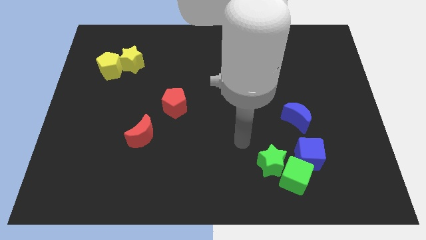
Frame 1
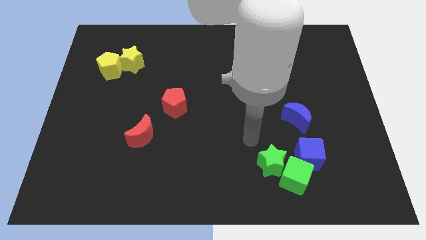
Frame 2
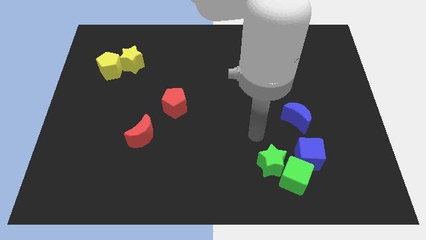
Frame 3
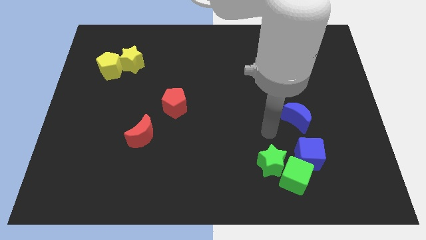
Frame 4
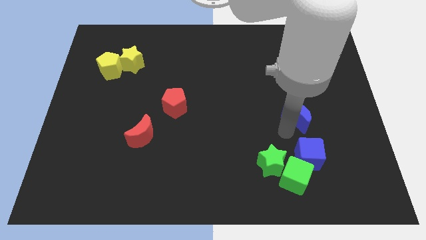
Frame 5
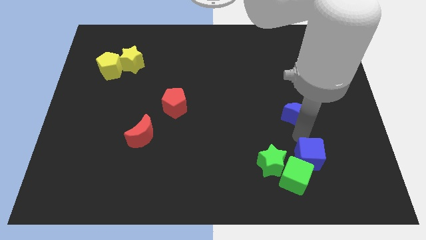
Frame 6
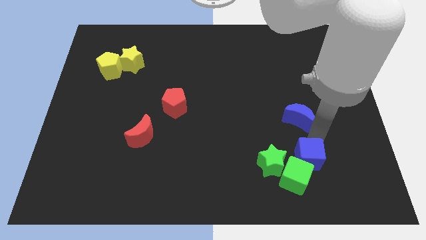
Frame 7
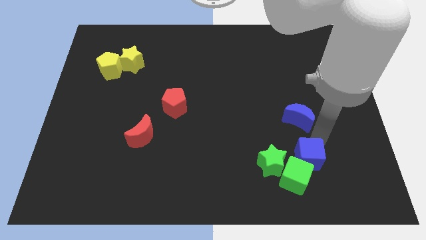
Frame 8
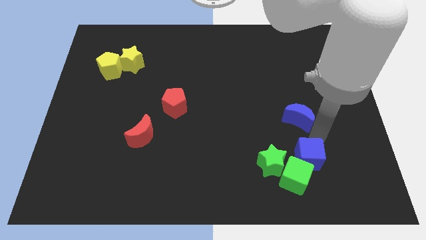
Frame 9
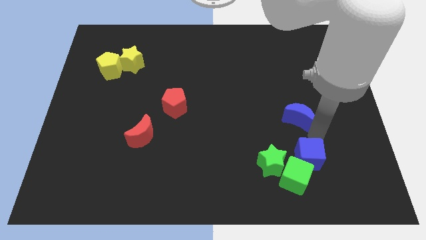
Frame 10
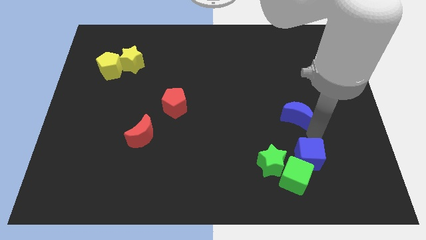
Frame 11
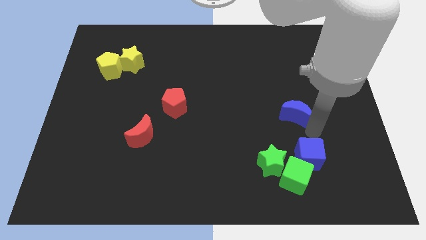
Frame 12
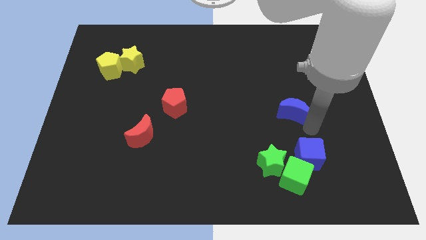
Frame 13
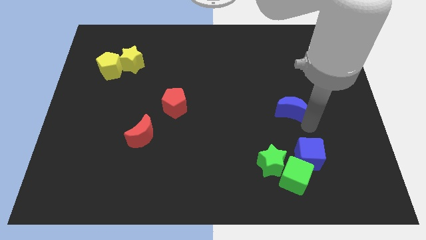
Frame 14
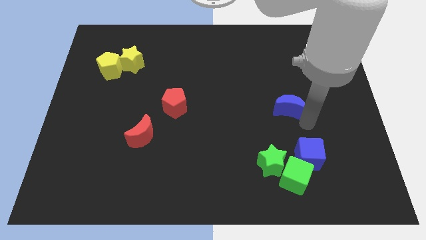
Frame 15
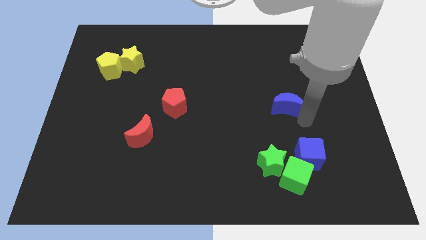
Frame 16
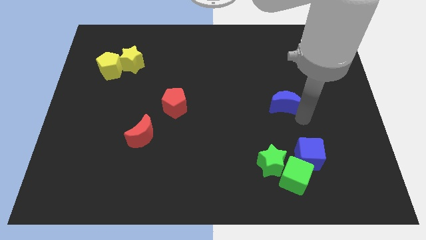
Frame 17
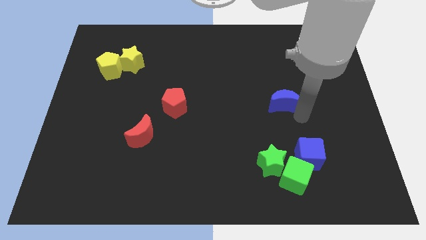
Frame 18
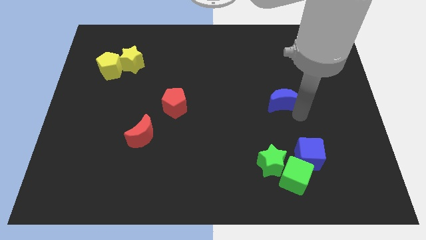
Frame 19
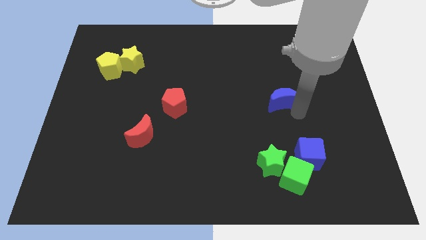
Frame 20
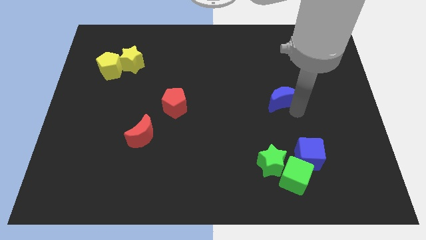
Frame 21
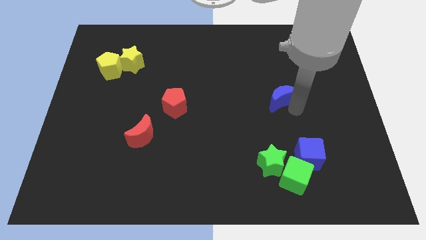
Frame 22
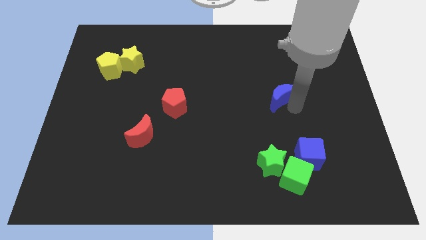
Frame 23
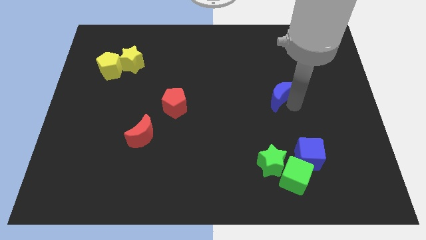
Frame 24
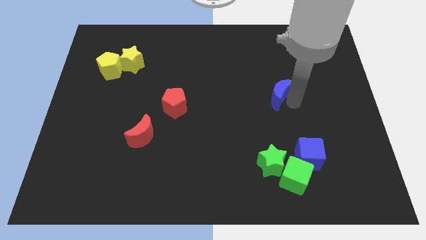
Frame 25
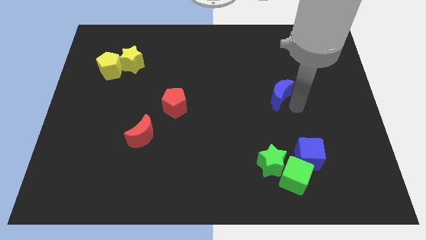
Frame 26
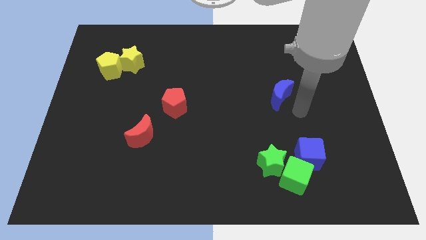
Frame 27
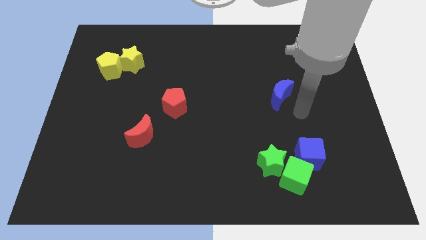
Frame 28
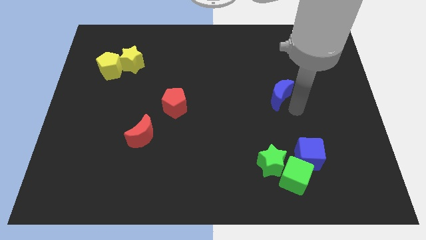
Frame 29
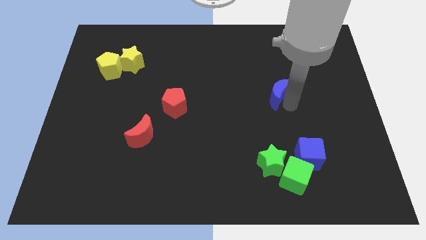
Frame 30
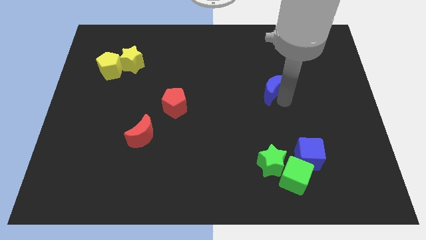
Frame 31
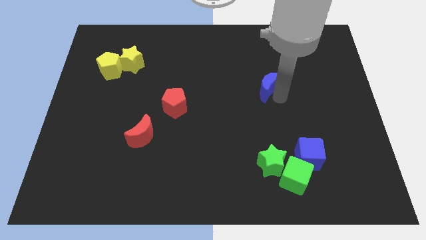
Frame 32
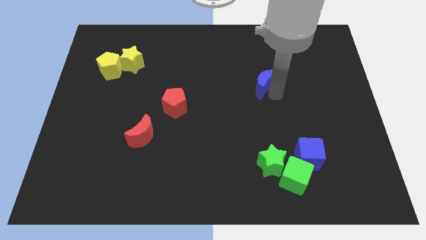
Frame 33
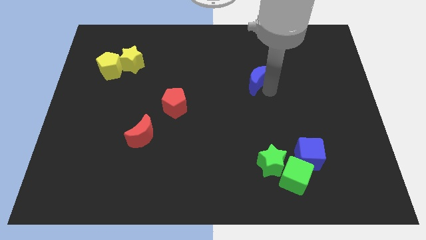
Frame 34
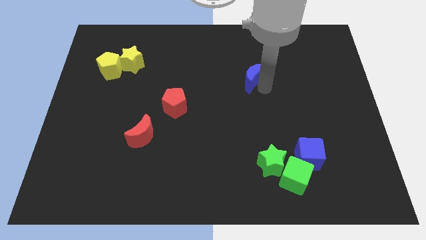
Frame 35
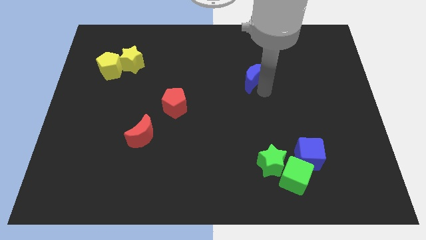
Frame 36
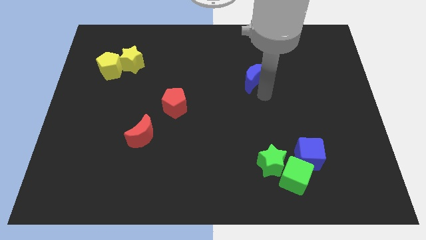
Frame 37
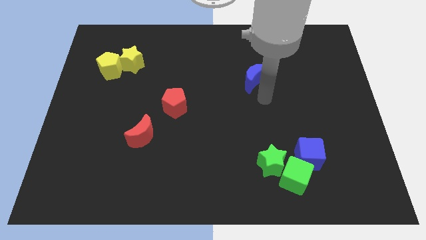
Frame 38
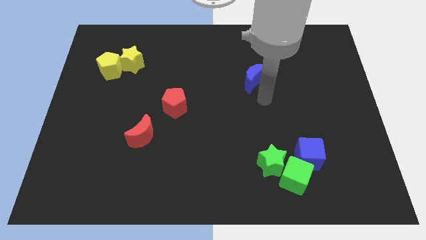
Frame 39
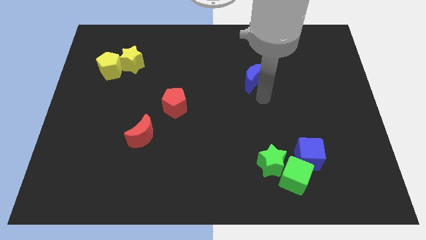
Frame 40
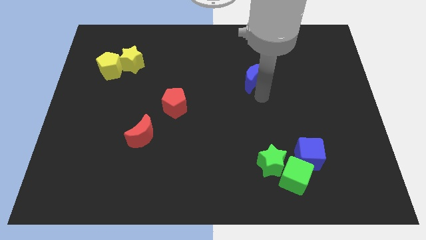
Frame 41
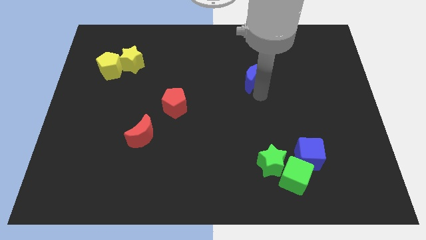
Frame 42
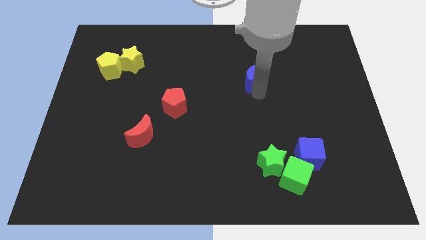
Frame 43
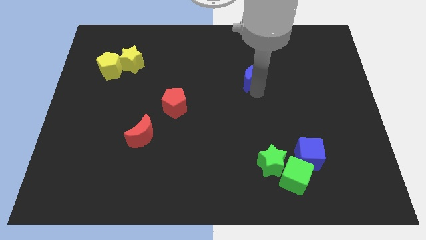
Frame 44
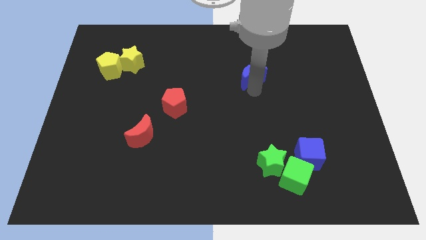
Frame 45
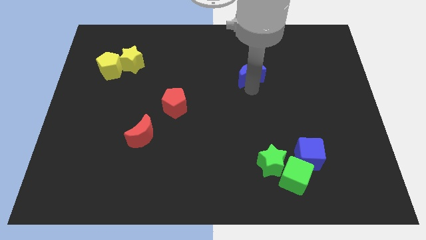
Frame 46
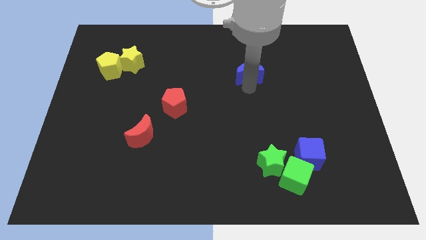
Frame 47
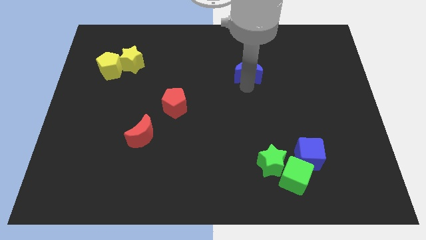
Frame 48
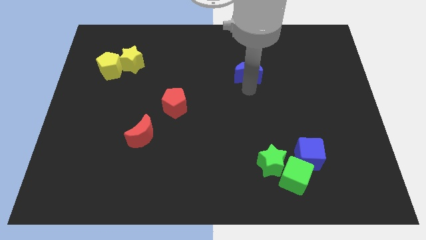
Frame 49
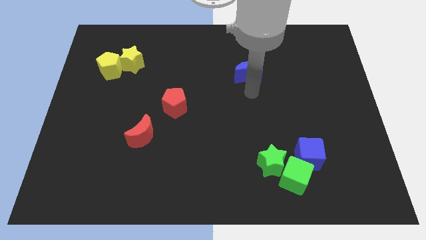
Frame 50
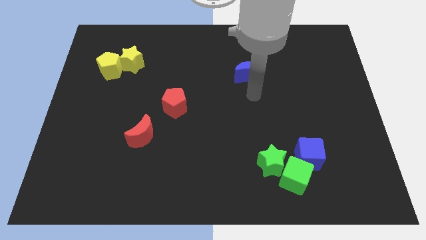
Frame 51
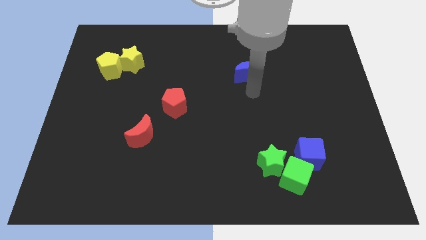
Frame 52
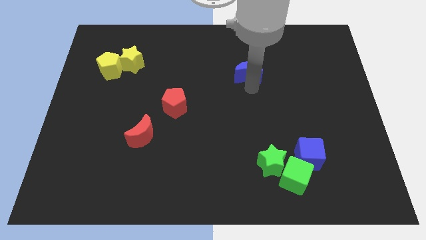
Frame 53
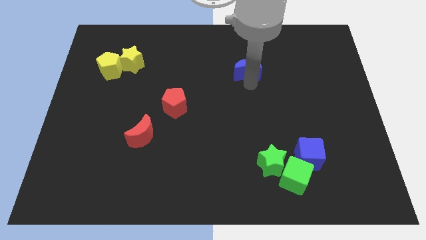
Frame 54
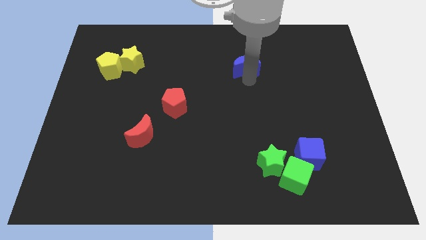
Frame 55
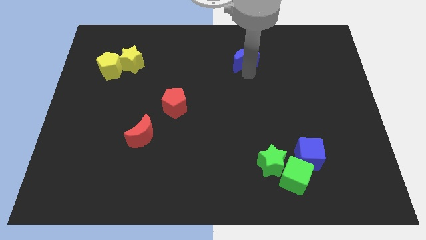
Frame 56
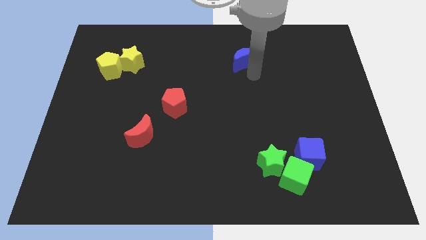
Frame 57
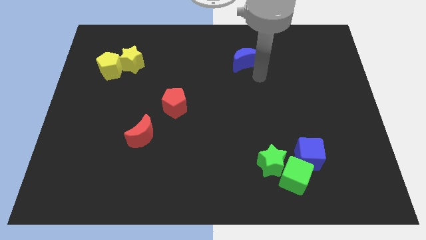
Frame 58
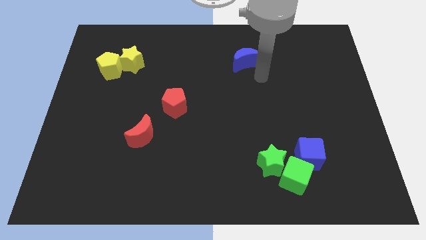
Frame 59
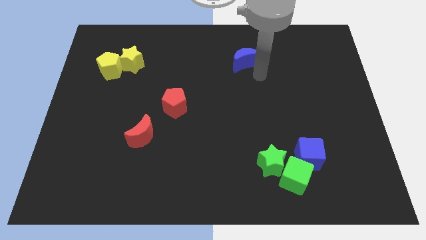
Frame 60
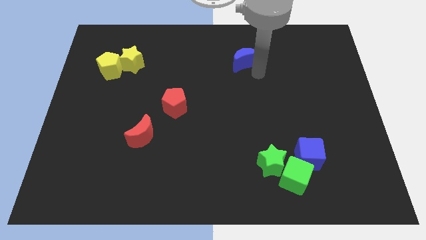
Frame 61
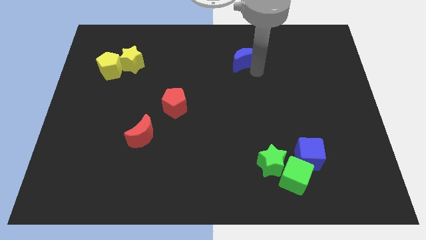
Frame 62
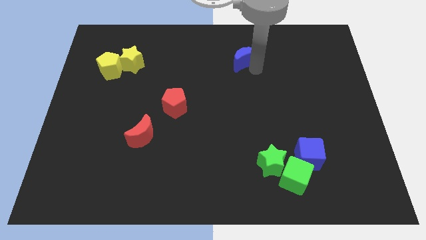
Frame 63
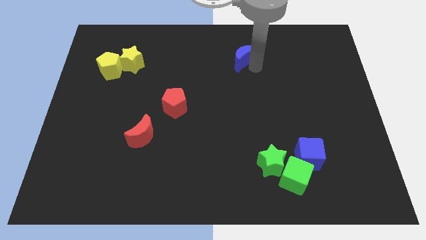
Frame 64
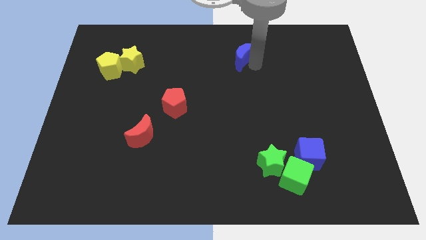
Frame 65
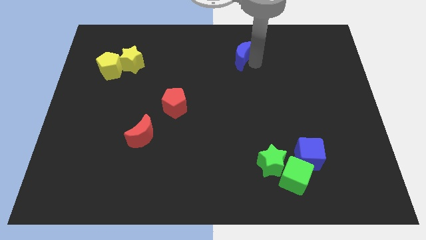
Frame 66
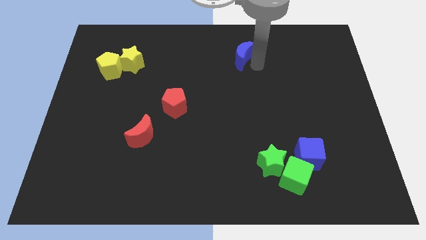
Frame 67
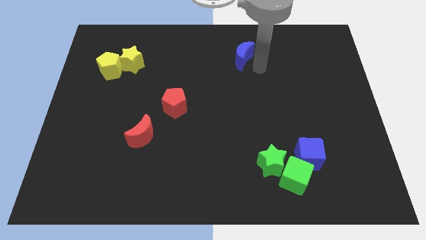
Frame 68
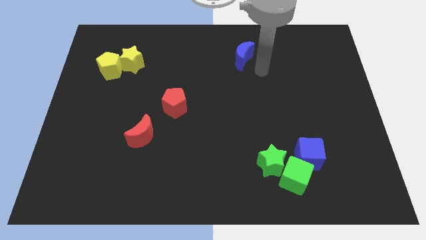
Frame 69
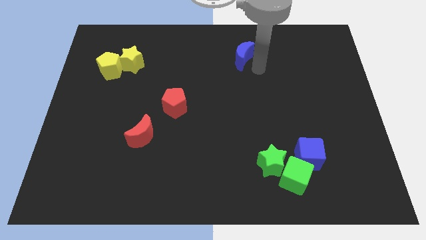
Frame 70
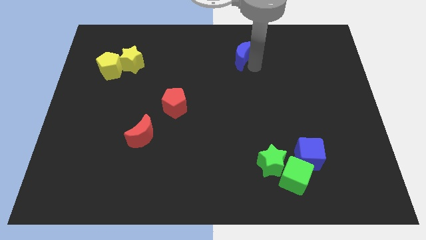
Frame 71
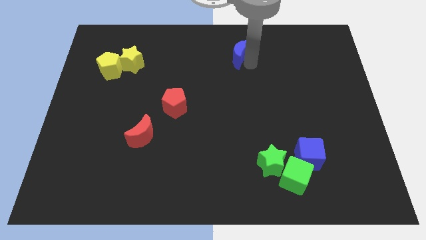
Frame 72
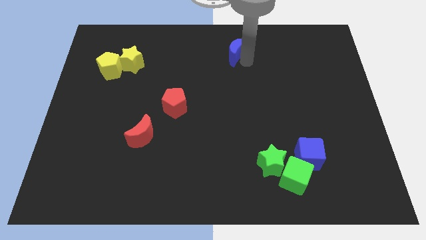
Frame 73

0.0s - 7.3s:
put the blue moon to the towards your base
